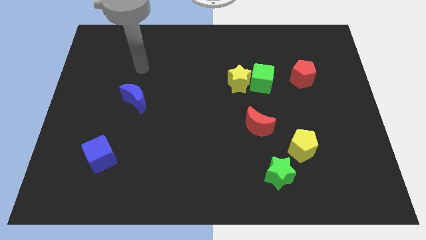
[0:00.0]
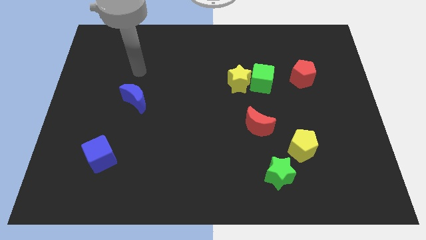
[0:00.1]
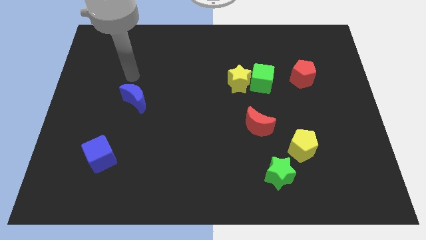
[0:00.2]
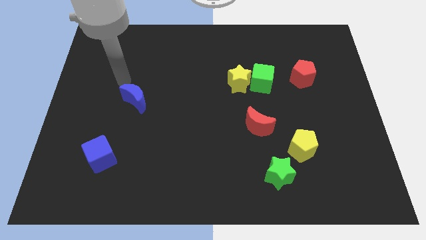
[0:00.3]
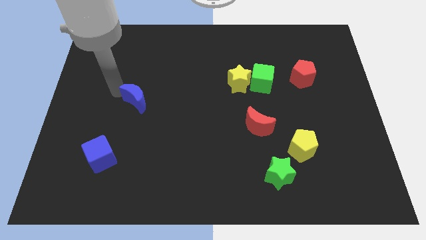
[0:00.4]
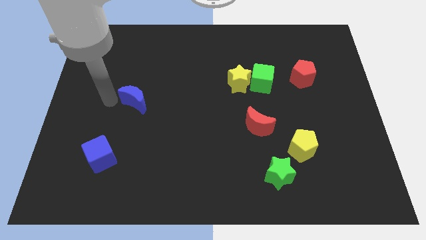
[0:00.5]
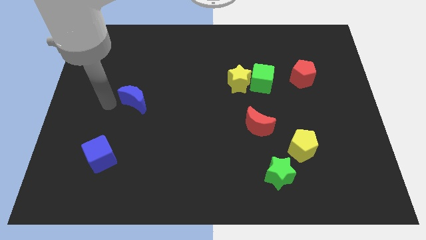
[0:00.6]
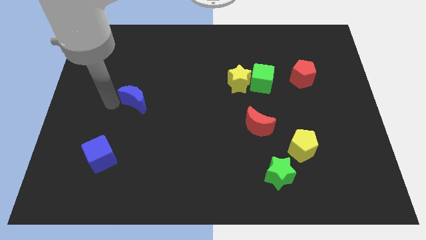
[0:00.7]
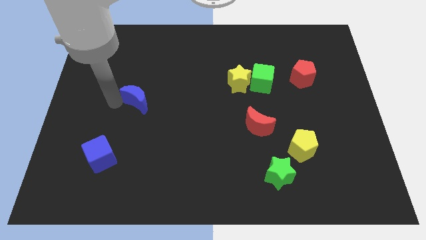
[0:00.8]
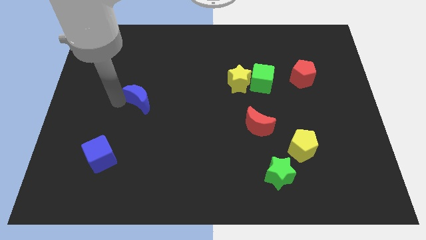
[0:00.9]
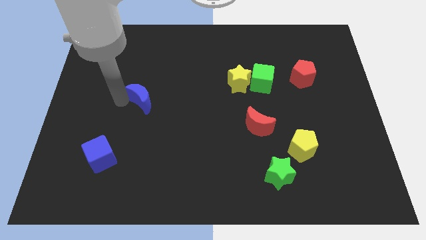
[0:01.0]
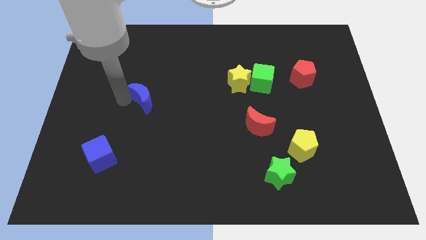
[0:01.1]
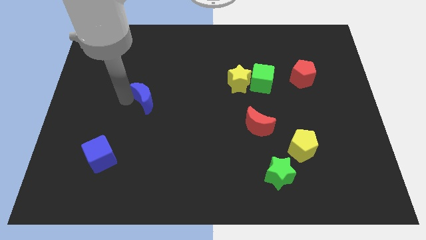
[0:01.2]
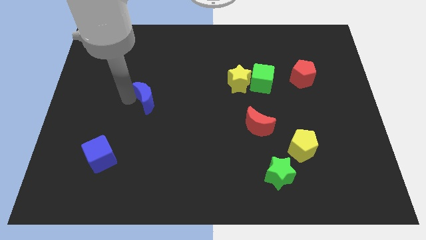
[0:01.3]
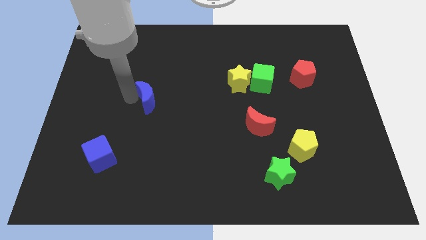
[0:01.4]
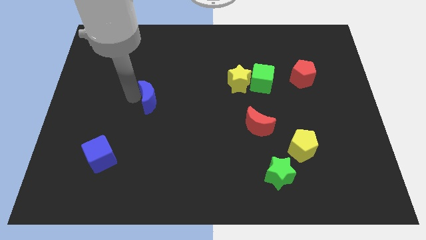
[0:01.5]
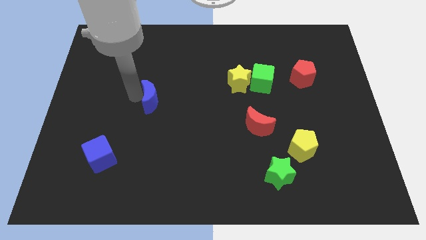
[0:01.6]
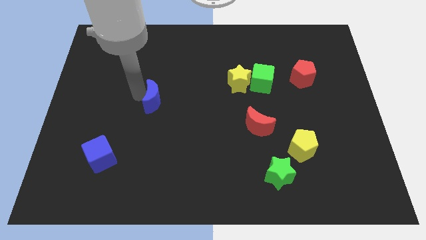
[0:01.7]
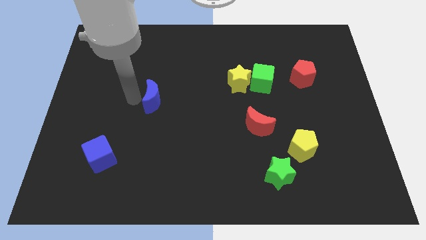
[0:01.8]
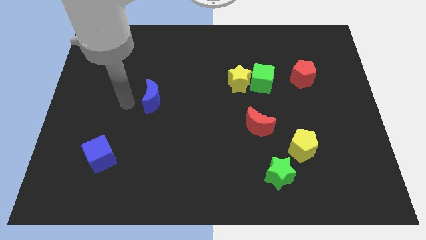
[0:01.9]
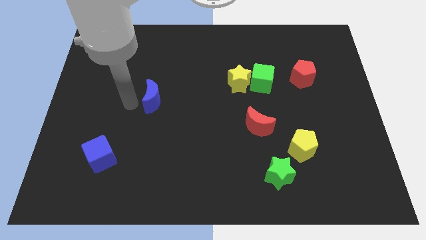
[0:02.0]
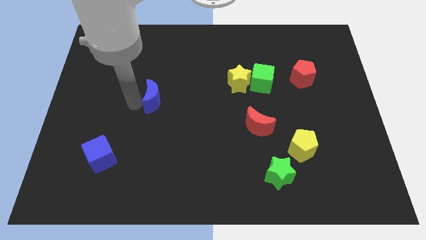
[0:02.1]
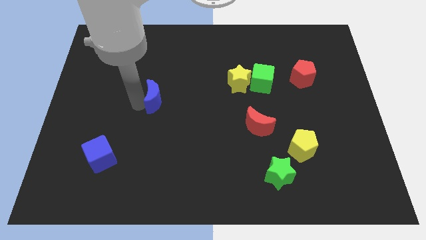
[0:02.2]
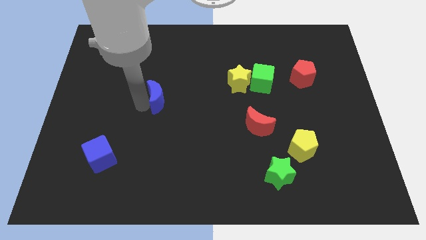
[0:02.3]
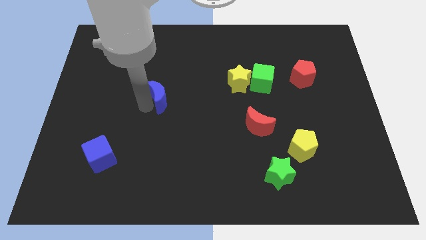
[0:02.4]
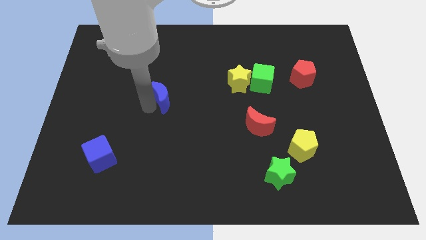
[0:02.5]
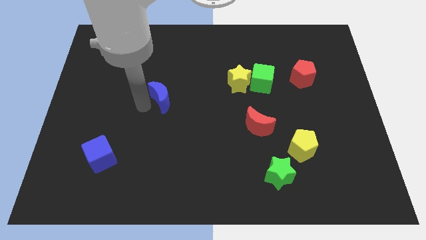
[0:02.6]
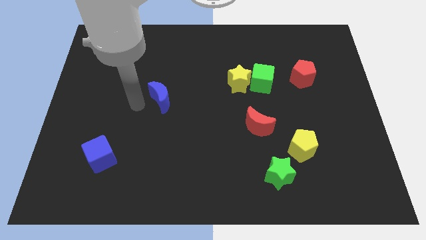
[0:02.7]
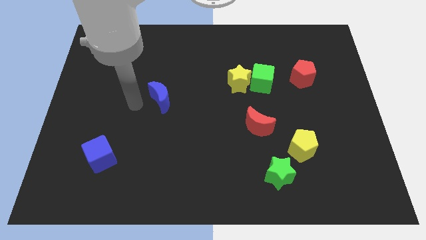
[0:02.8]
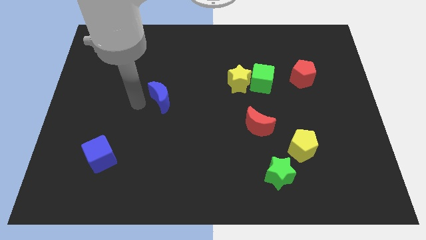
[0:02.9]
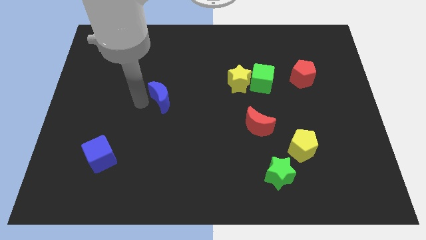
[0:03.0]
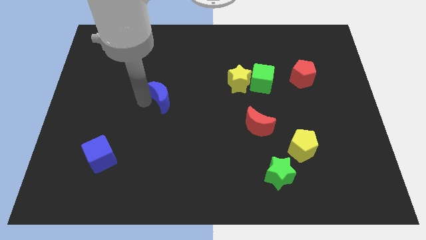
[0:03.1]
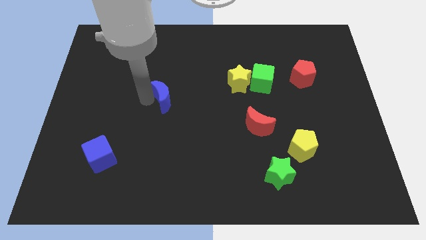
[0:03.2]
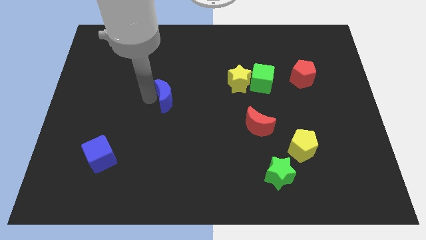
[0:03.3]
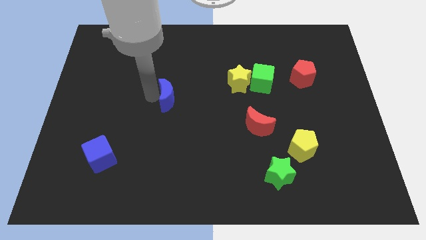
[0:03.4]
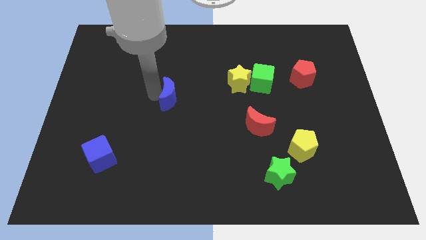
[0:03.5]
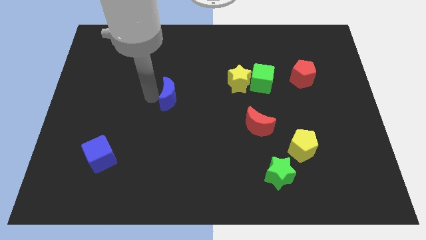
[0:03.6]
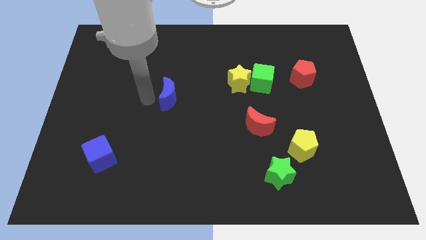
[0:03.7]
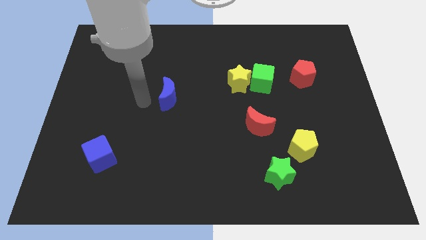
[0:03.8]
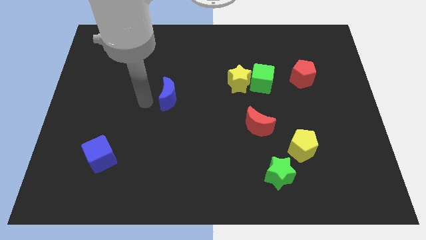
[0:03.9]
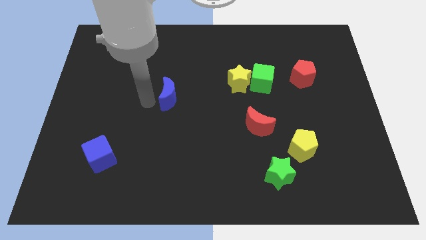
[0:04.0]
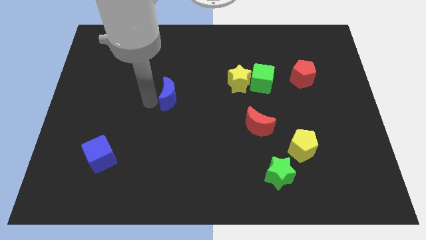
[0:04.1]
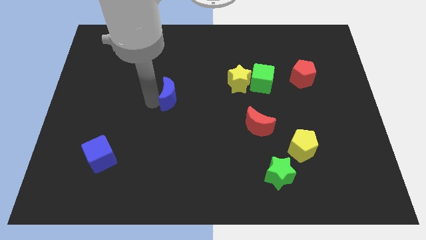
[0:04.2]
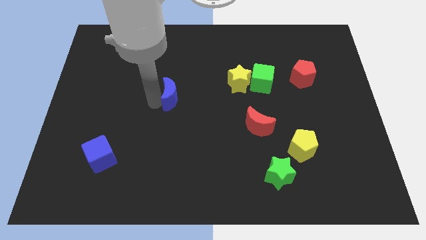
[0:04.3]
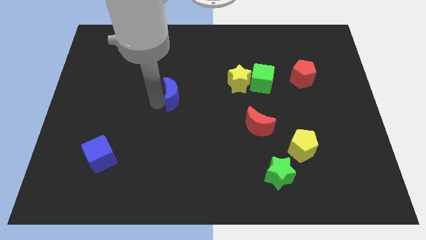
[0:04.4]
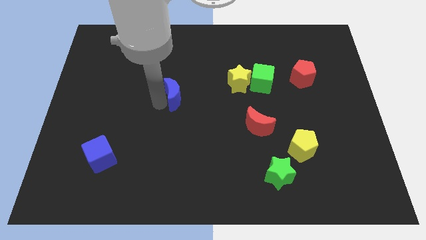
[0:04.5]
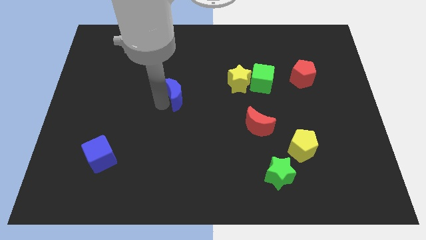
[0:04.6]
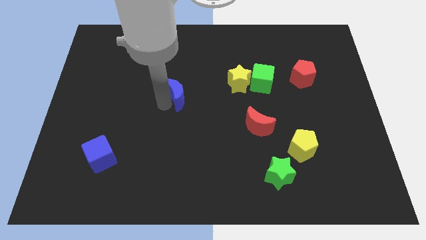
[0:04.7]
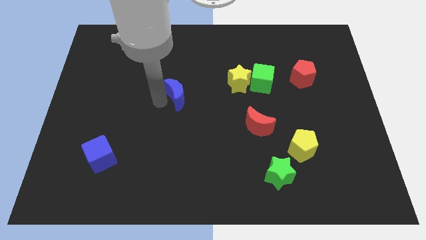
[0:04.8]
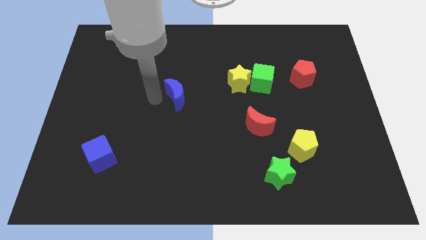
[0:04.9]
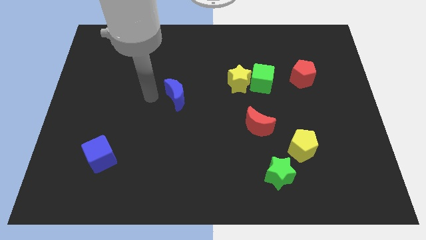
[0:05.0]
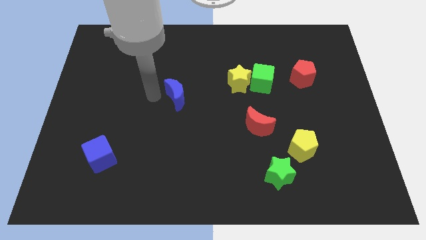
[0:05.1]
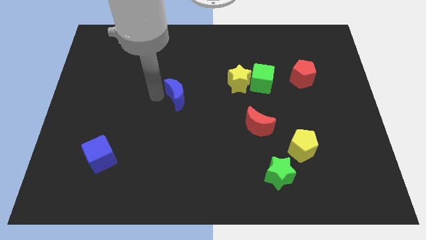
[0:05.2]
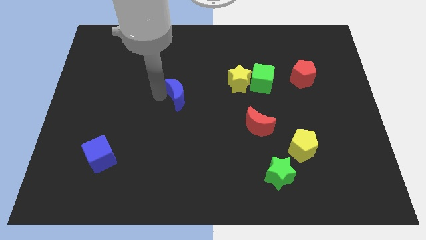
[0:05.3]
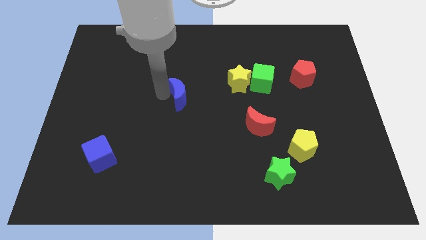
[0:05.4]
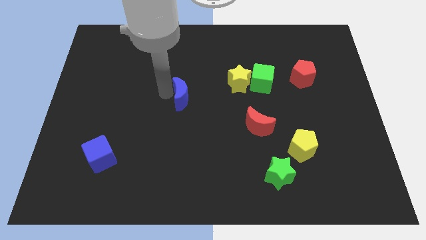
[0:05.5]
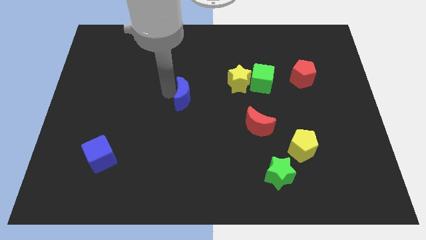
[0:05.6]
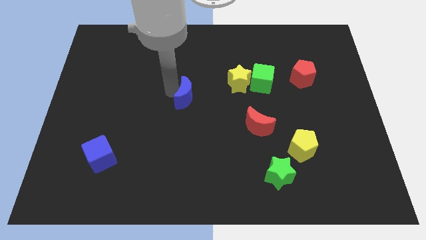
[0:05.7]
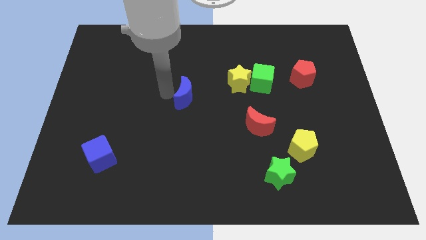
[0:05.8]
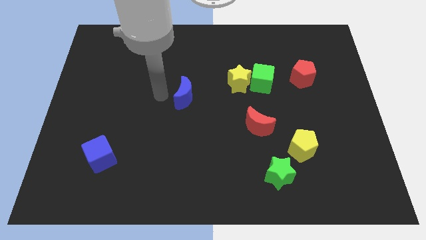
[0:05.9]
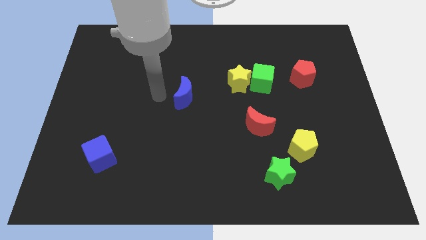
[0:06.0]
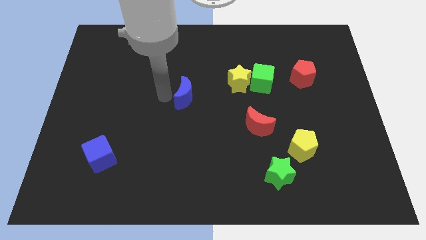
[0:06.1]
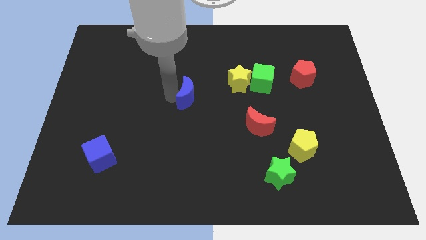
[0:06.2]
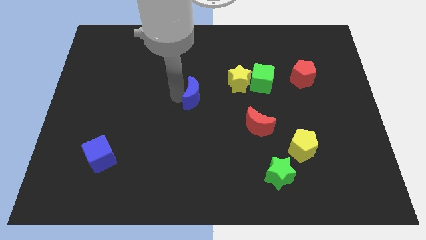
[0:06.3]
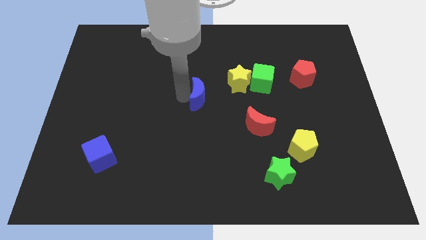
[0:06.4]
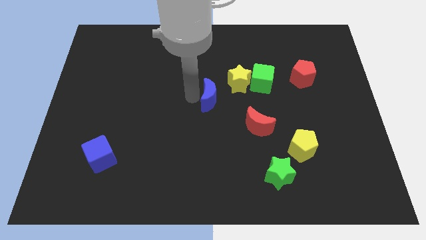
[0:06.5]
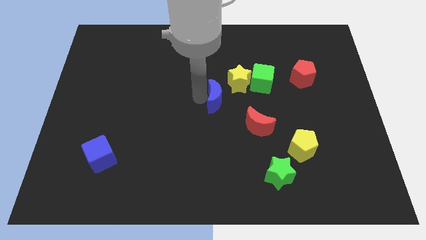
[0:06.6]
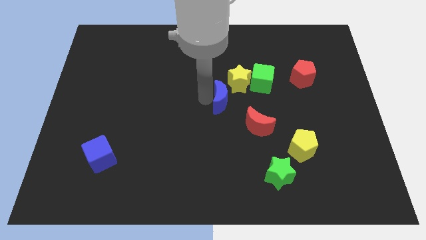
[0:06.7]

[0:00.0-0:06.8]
push the blue moon right

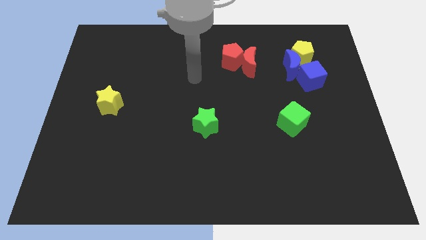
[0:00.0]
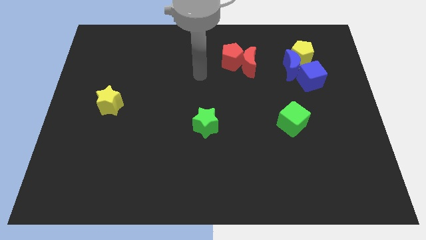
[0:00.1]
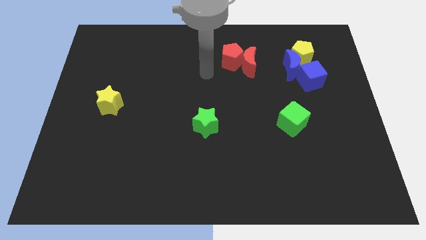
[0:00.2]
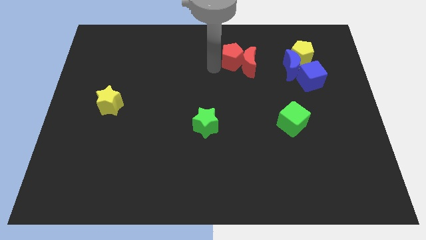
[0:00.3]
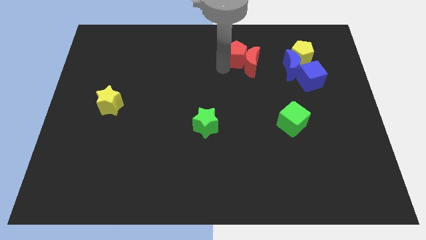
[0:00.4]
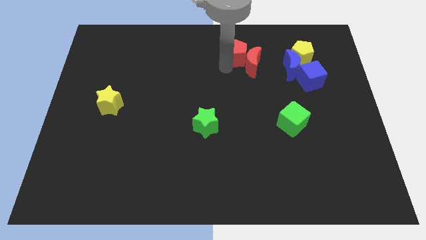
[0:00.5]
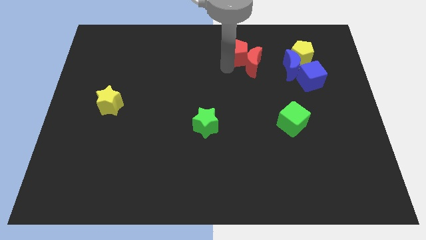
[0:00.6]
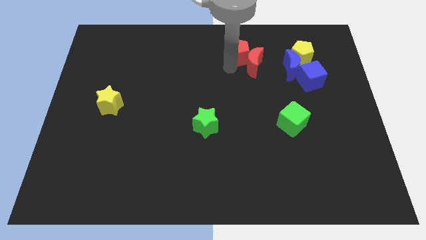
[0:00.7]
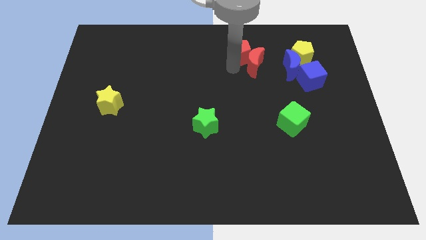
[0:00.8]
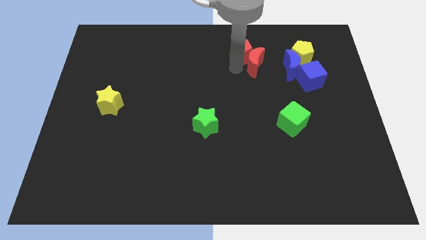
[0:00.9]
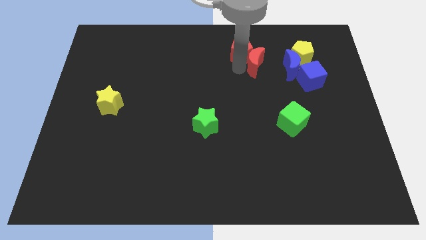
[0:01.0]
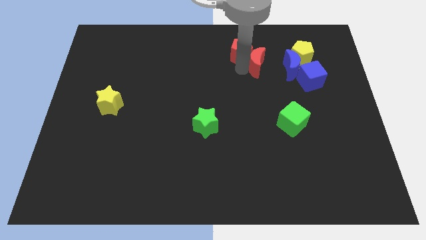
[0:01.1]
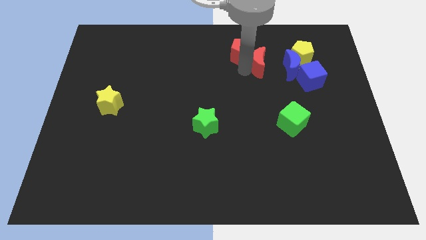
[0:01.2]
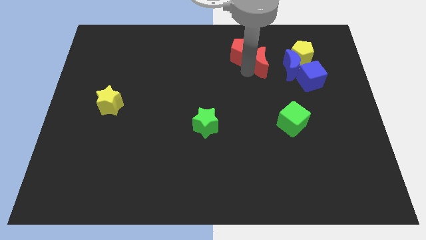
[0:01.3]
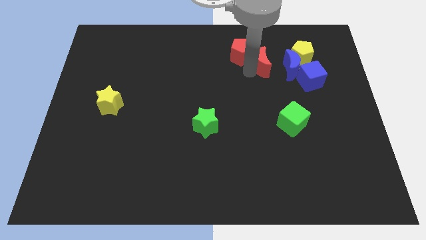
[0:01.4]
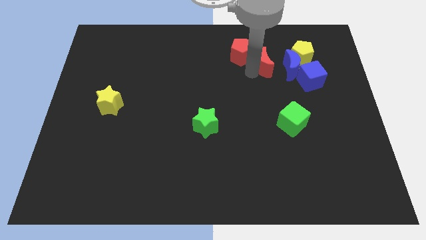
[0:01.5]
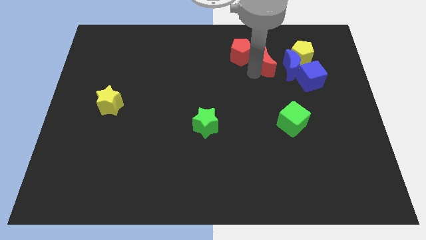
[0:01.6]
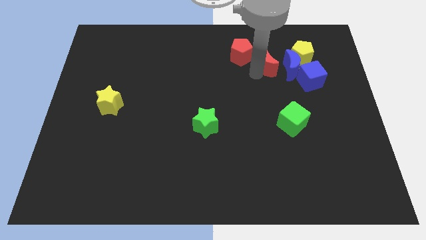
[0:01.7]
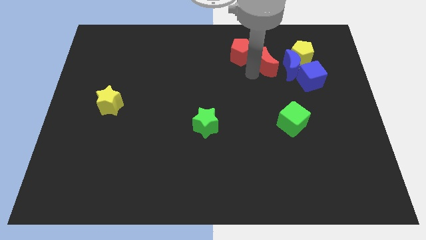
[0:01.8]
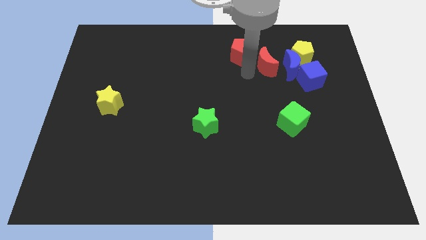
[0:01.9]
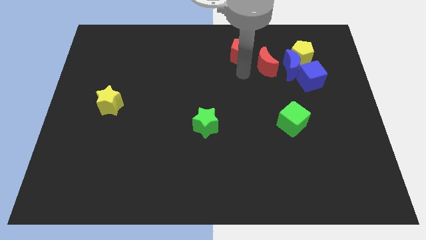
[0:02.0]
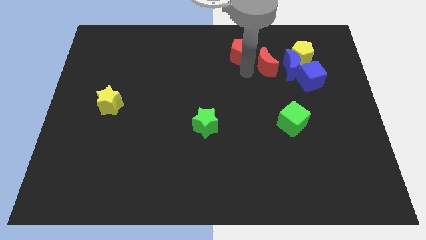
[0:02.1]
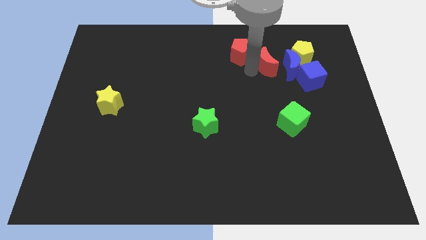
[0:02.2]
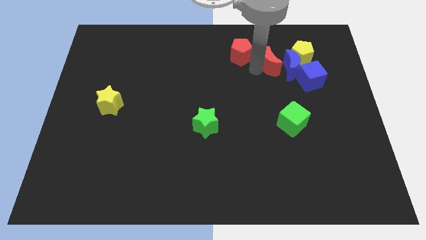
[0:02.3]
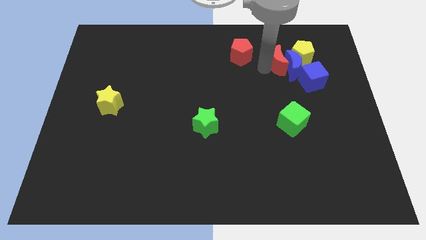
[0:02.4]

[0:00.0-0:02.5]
push the red moon to the right a bit
